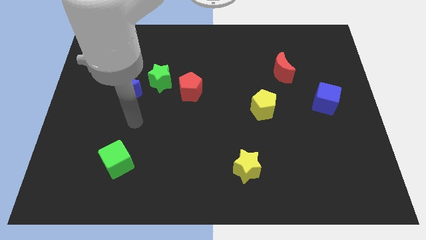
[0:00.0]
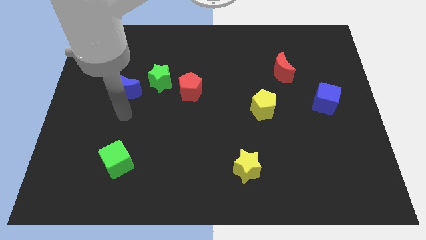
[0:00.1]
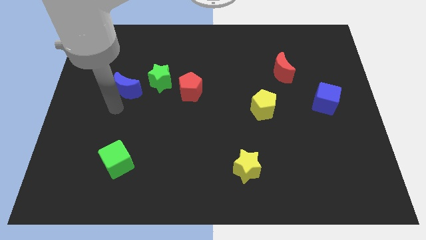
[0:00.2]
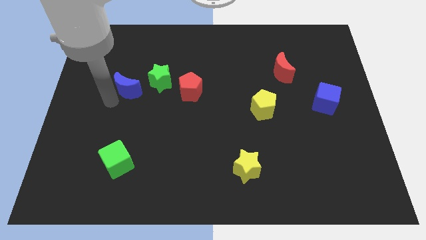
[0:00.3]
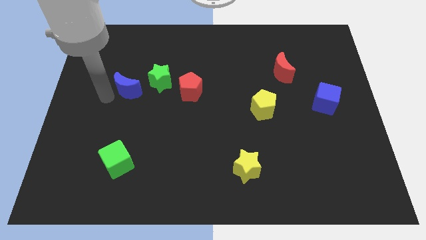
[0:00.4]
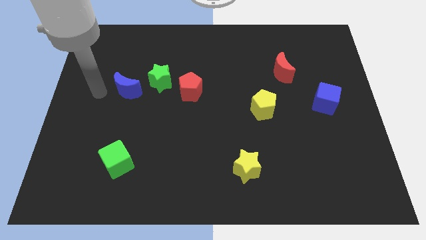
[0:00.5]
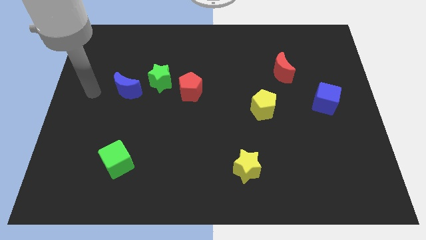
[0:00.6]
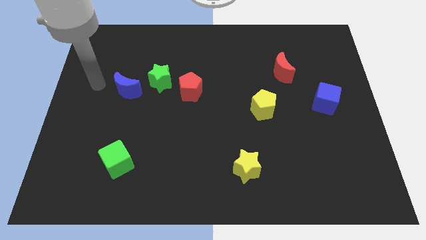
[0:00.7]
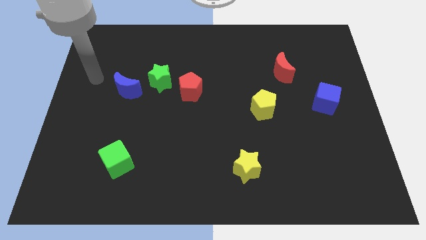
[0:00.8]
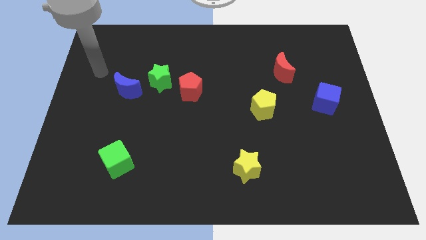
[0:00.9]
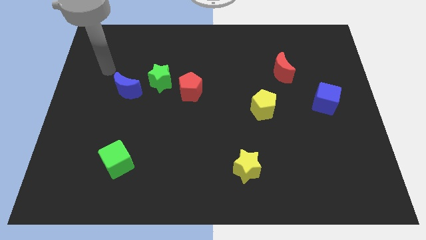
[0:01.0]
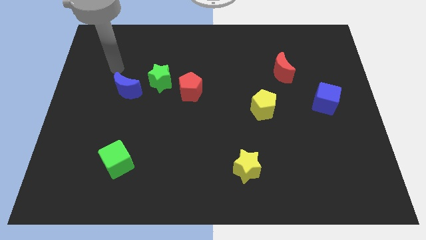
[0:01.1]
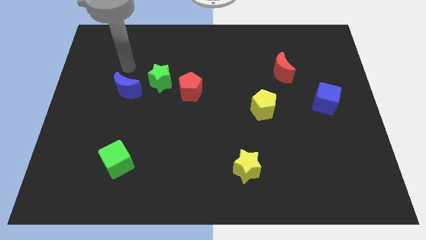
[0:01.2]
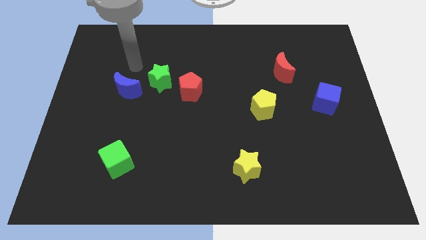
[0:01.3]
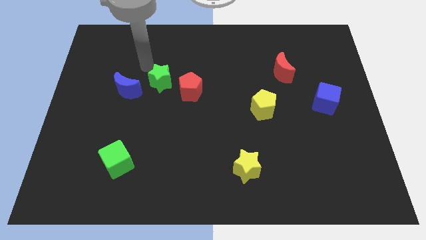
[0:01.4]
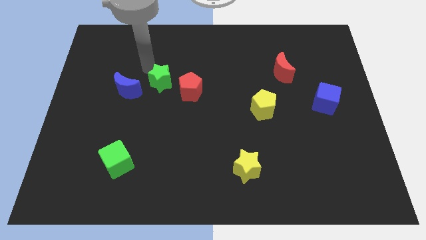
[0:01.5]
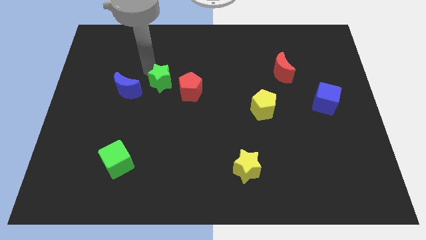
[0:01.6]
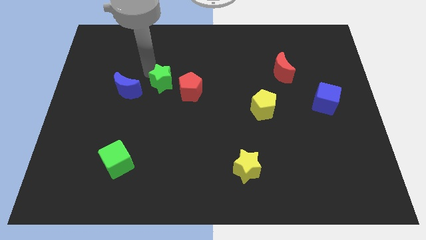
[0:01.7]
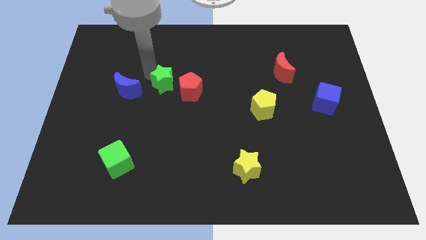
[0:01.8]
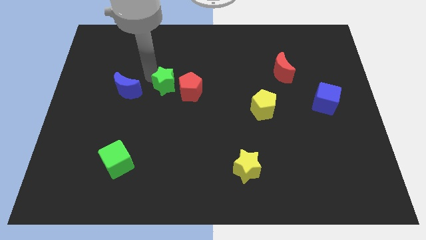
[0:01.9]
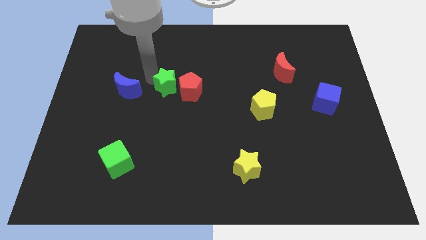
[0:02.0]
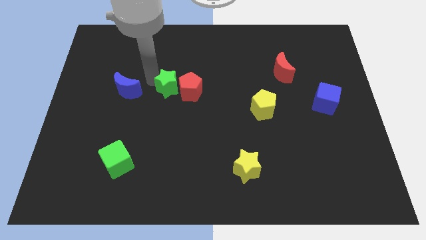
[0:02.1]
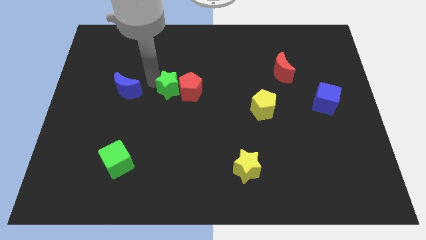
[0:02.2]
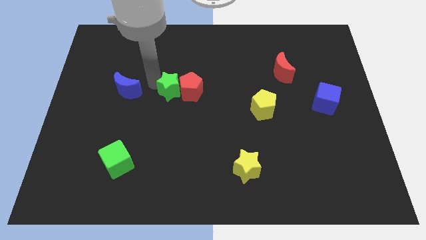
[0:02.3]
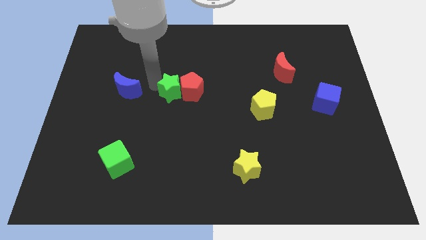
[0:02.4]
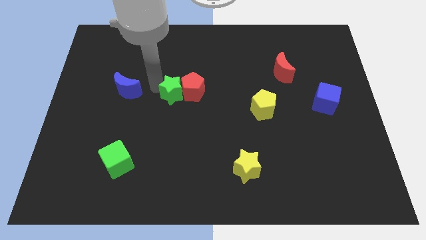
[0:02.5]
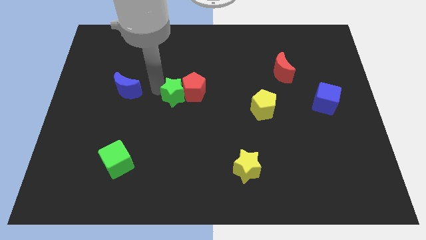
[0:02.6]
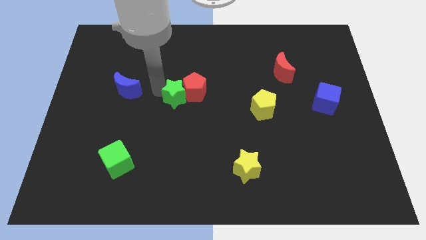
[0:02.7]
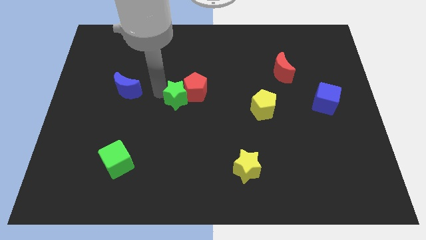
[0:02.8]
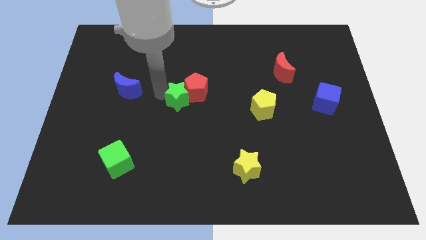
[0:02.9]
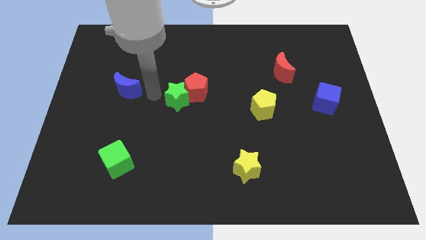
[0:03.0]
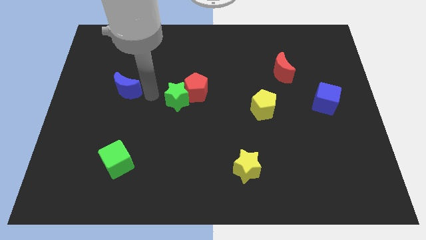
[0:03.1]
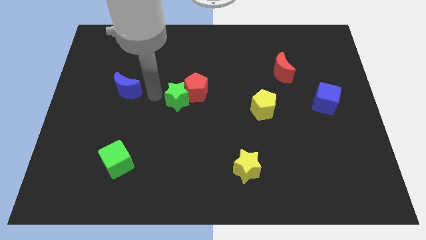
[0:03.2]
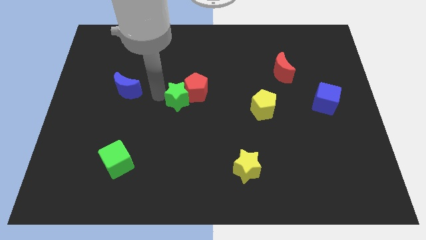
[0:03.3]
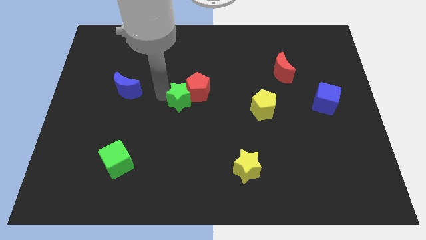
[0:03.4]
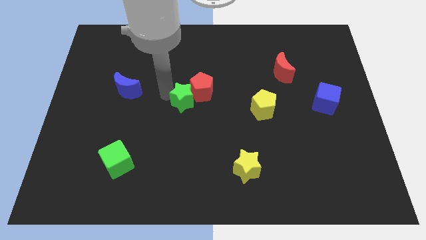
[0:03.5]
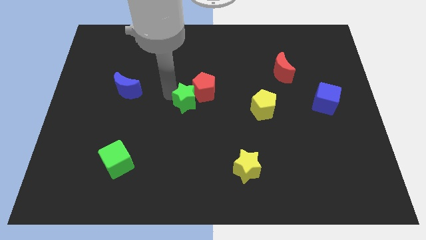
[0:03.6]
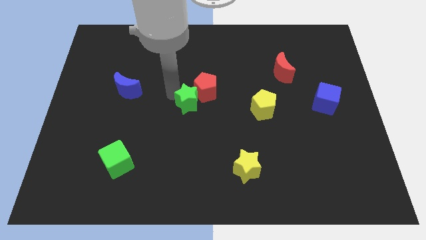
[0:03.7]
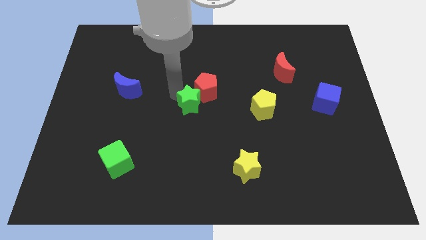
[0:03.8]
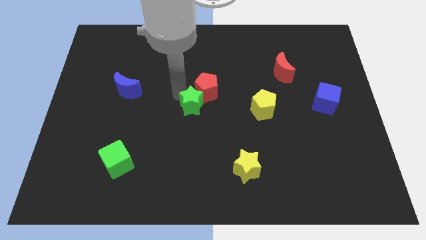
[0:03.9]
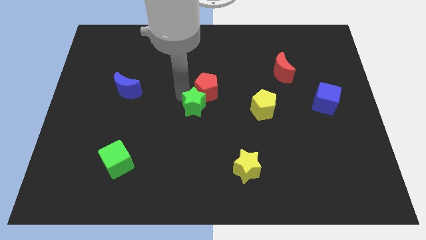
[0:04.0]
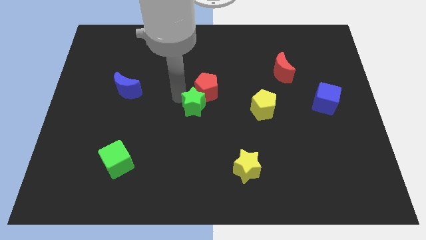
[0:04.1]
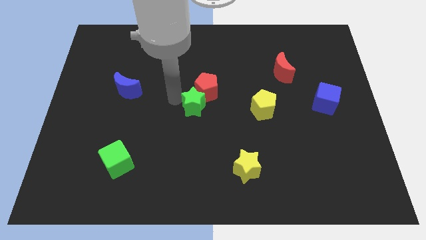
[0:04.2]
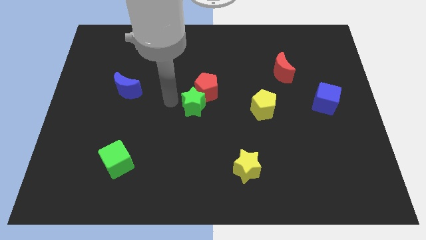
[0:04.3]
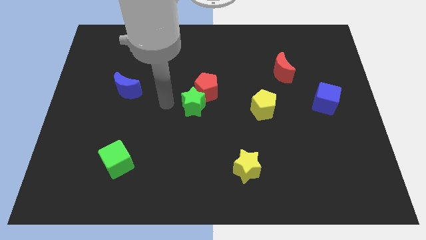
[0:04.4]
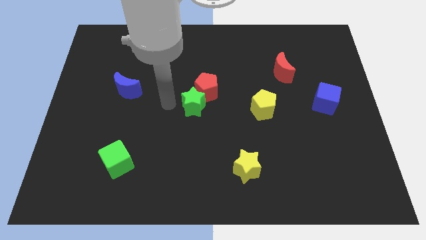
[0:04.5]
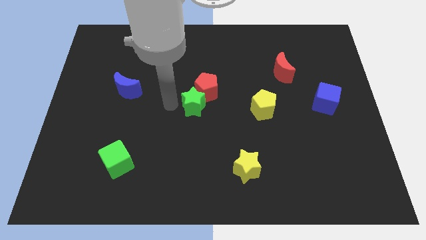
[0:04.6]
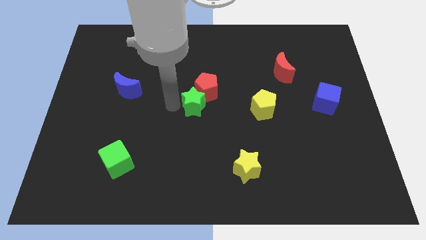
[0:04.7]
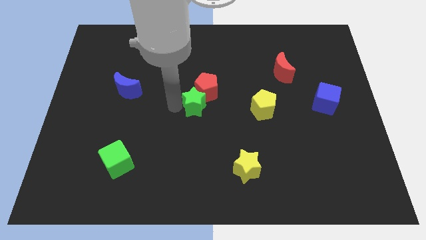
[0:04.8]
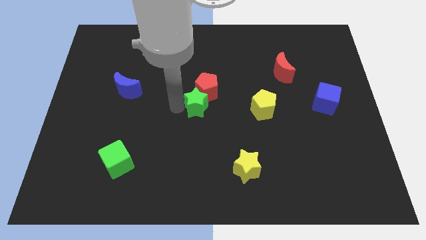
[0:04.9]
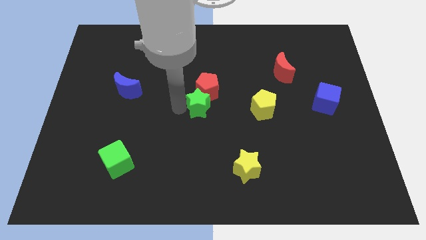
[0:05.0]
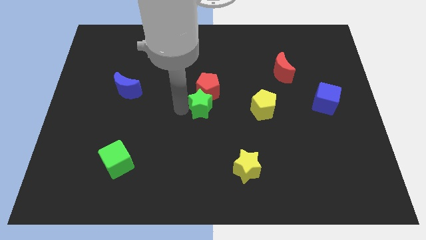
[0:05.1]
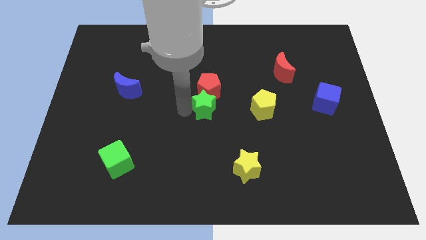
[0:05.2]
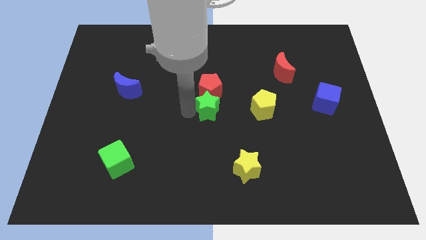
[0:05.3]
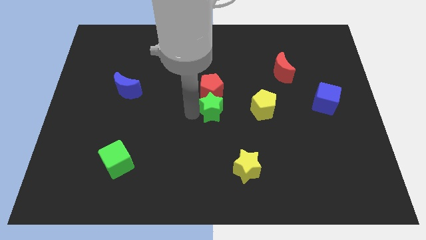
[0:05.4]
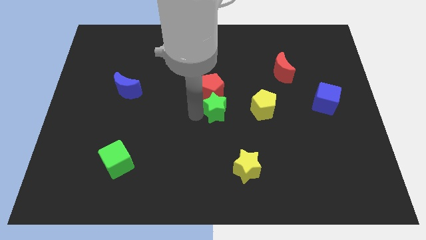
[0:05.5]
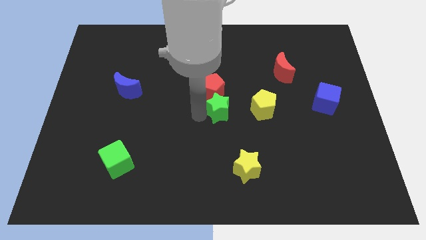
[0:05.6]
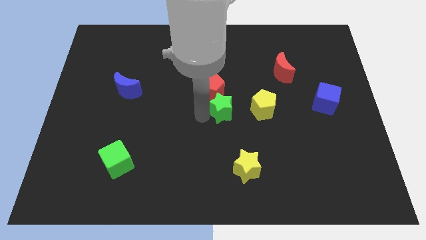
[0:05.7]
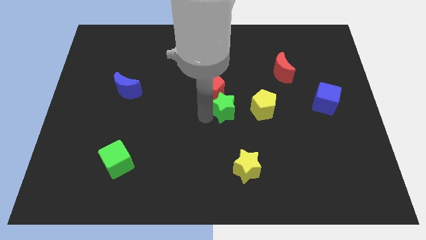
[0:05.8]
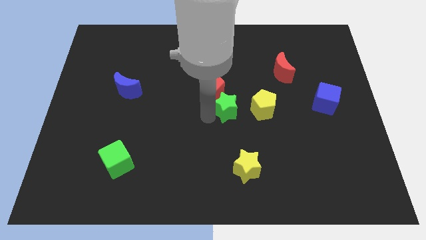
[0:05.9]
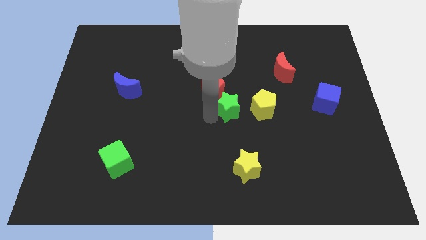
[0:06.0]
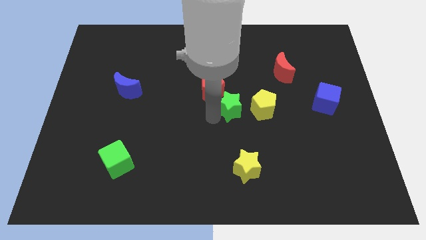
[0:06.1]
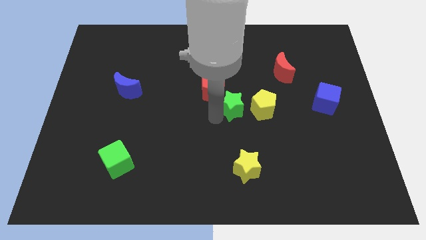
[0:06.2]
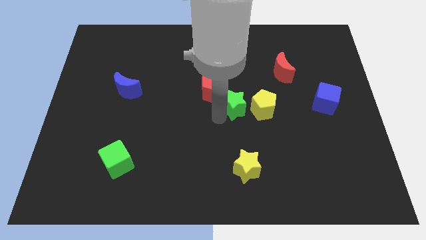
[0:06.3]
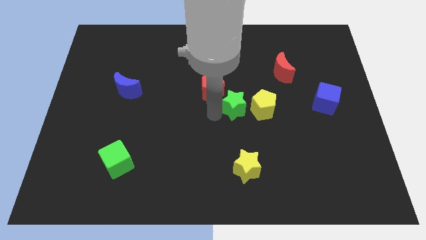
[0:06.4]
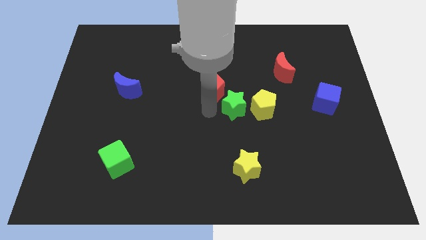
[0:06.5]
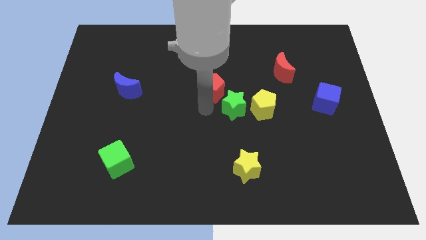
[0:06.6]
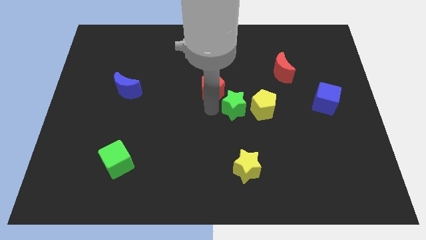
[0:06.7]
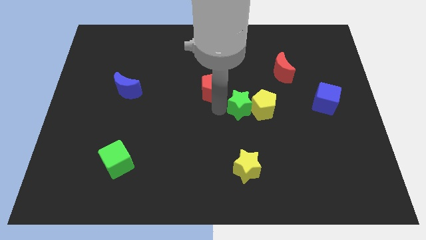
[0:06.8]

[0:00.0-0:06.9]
move the green star to the yellow pentagon
